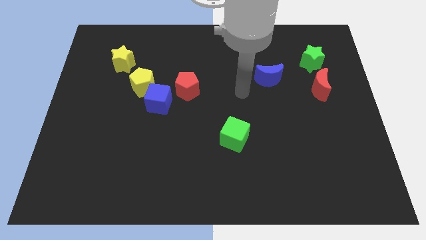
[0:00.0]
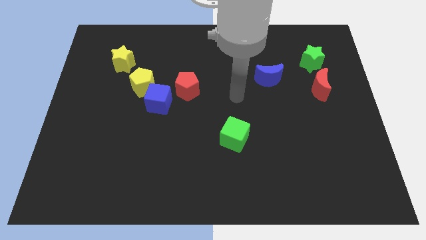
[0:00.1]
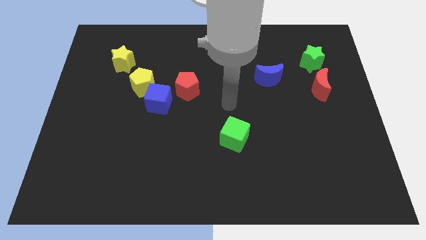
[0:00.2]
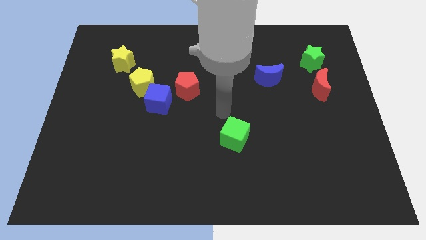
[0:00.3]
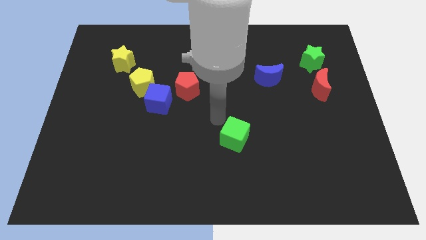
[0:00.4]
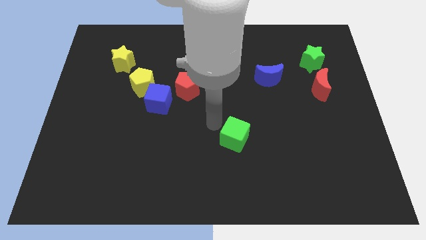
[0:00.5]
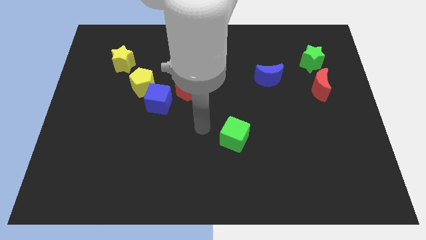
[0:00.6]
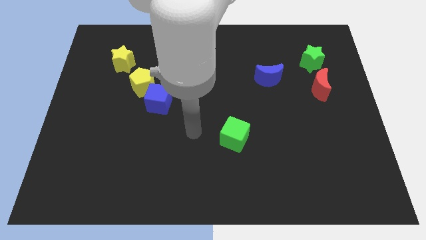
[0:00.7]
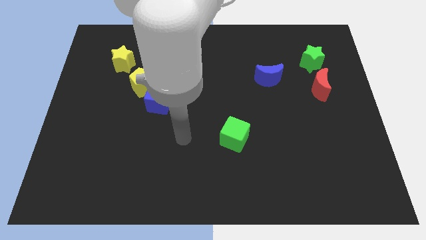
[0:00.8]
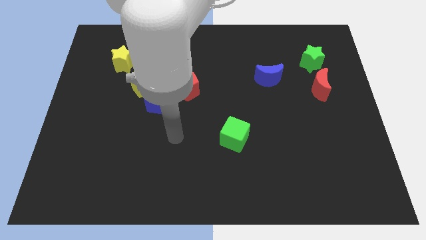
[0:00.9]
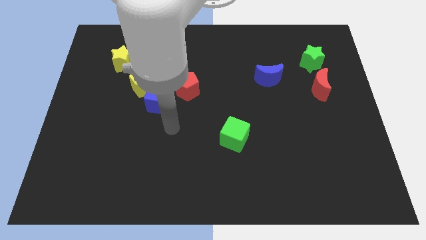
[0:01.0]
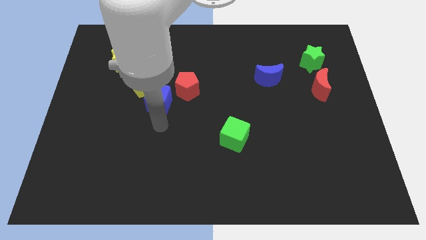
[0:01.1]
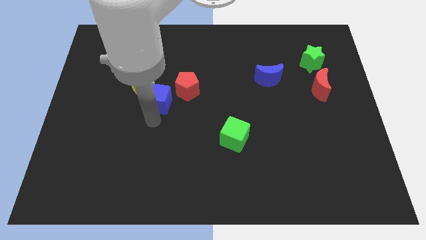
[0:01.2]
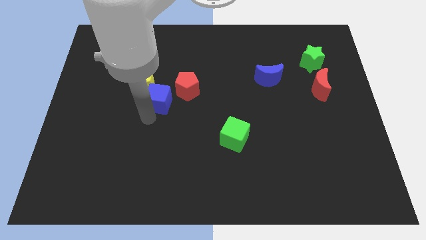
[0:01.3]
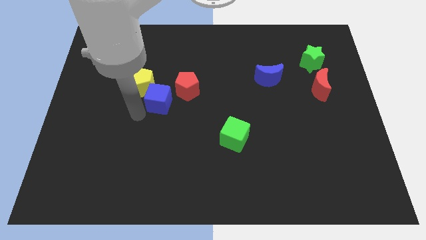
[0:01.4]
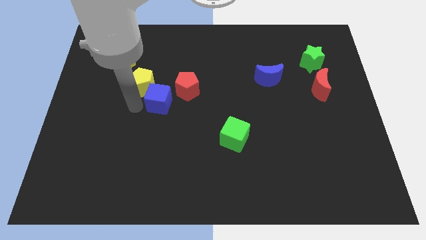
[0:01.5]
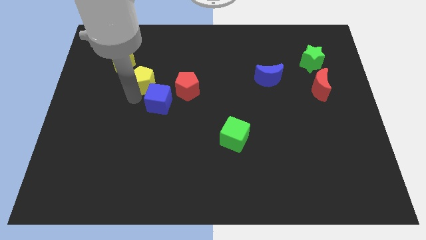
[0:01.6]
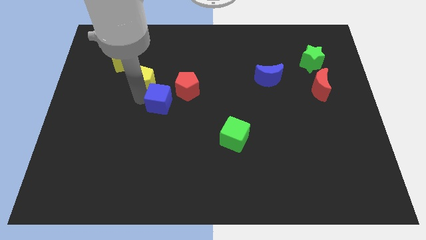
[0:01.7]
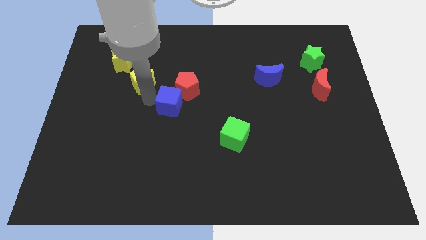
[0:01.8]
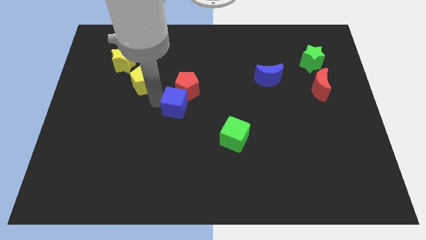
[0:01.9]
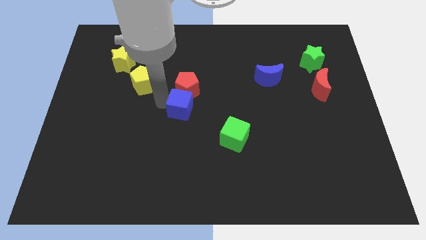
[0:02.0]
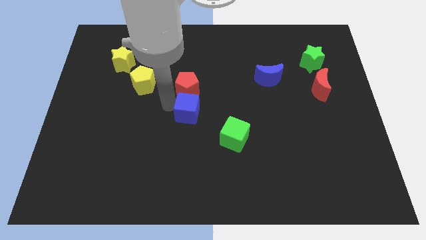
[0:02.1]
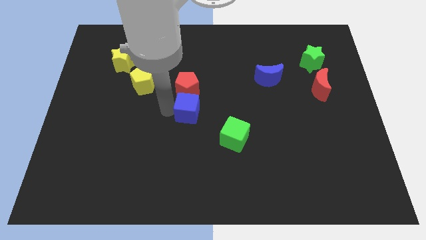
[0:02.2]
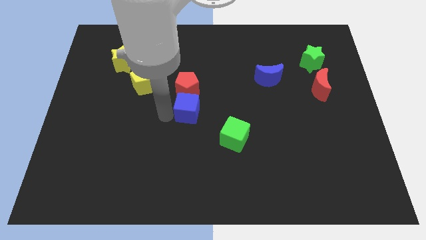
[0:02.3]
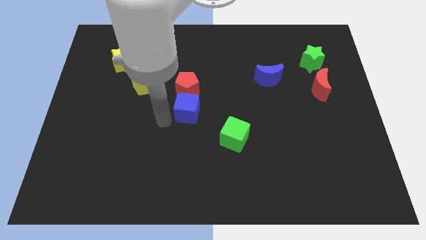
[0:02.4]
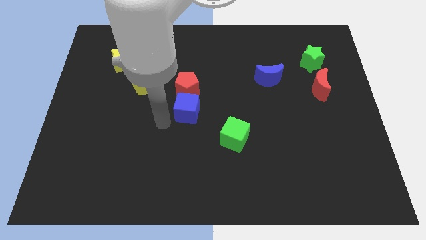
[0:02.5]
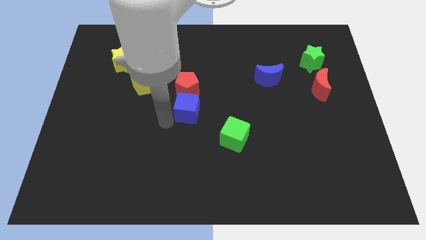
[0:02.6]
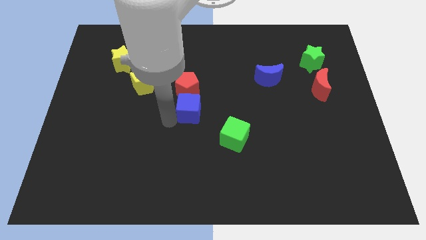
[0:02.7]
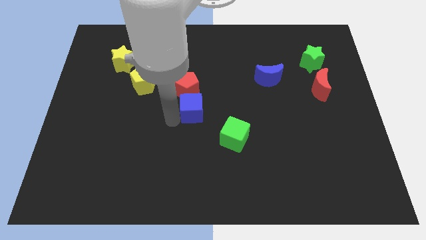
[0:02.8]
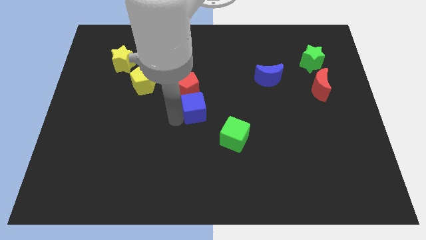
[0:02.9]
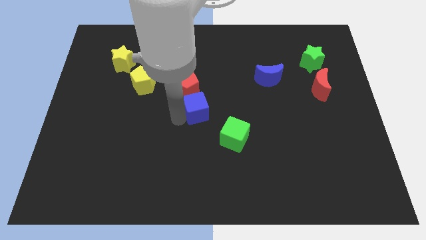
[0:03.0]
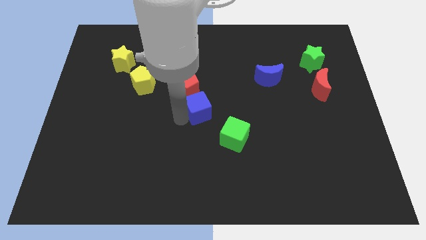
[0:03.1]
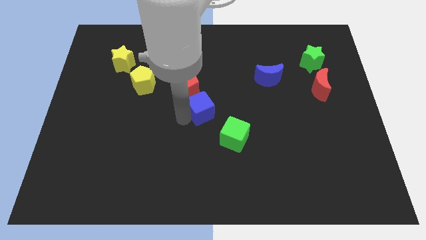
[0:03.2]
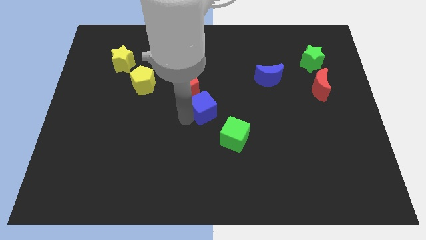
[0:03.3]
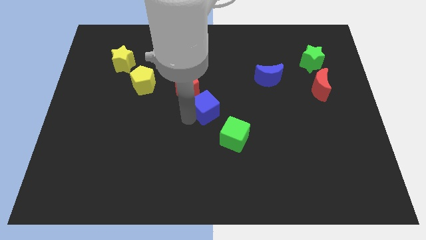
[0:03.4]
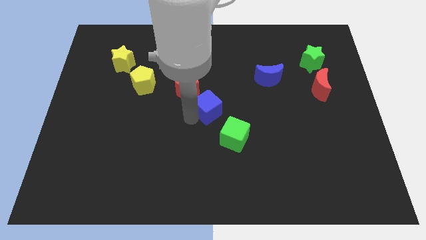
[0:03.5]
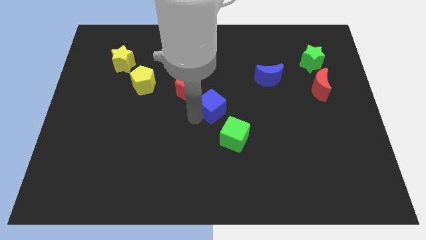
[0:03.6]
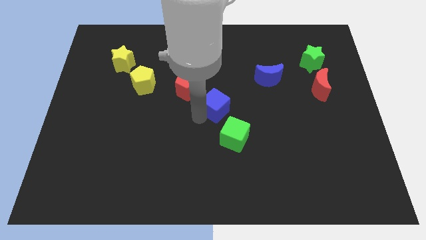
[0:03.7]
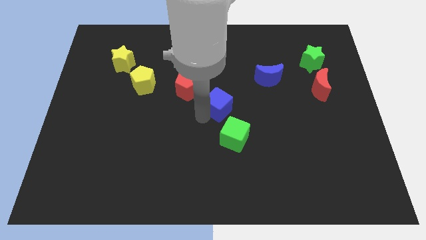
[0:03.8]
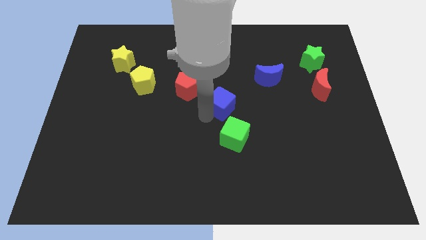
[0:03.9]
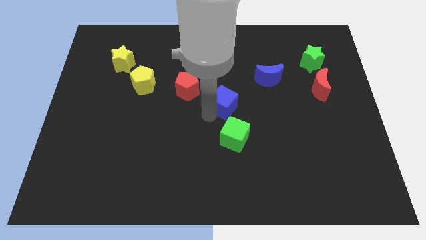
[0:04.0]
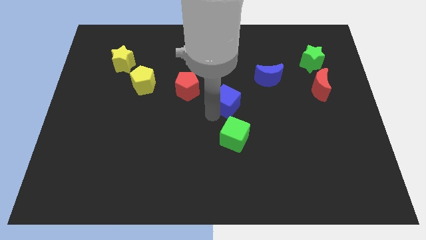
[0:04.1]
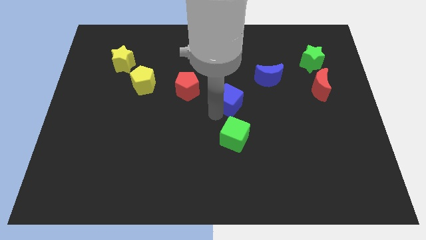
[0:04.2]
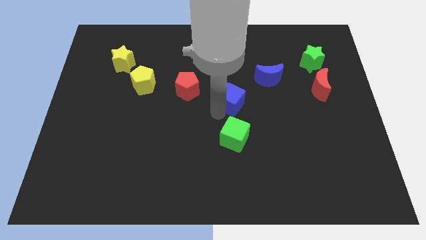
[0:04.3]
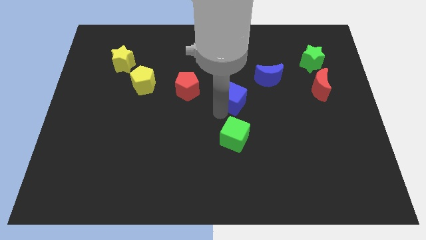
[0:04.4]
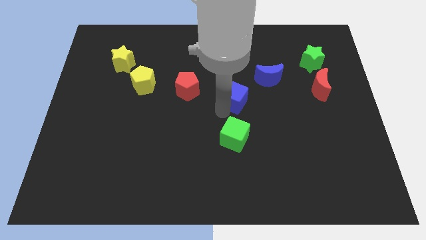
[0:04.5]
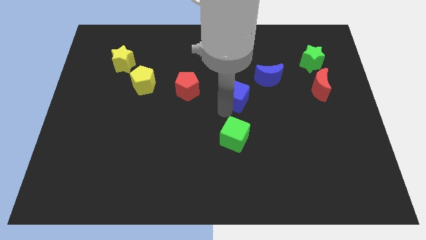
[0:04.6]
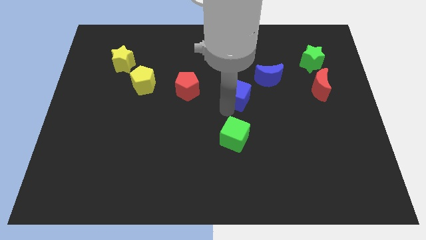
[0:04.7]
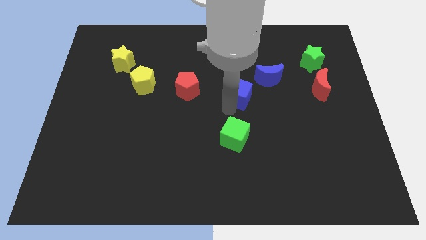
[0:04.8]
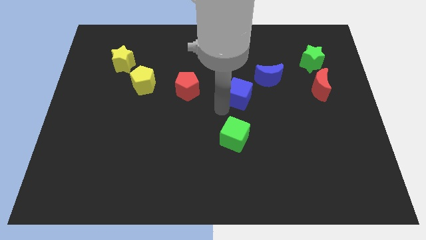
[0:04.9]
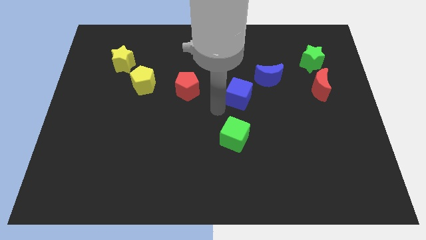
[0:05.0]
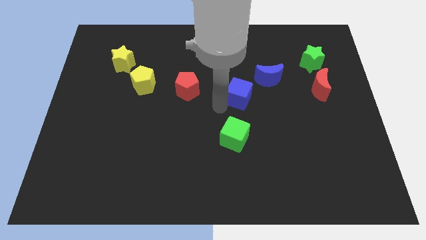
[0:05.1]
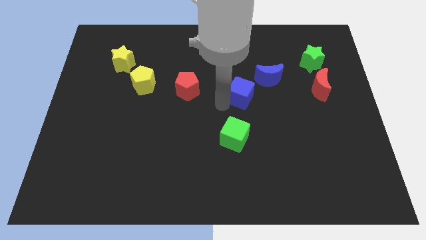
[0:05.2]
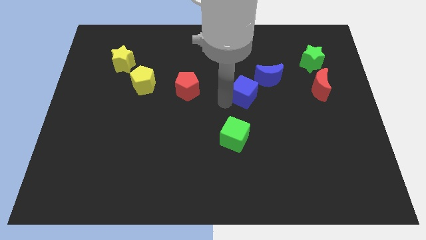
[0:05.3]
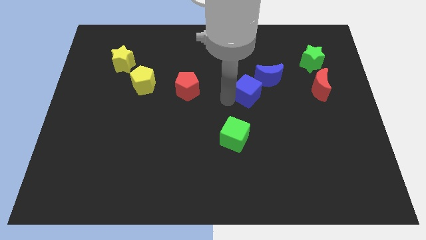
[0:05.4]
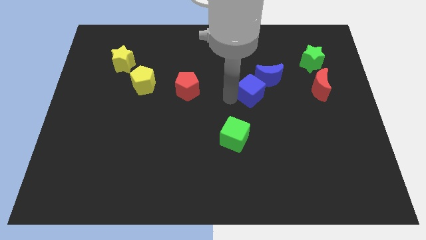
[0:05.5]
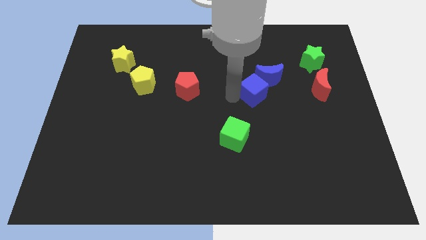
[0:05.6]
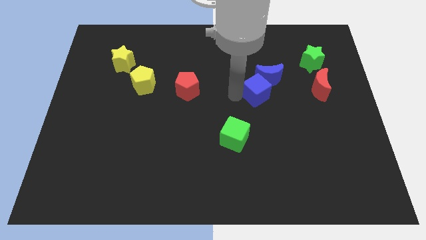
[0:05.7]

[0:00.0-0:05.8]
put the blue cube next to the blue moon

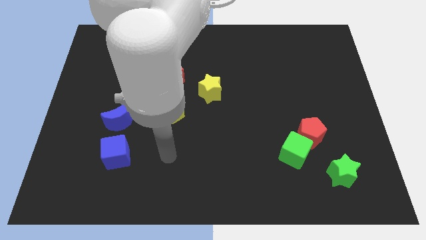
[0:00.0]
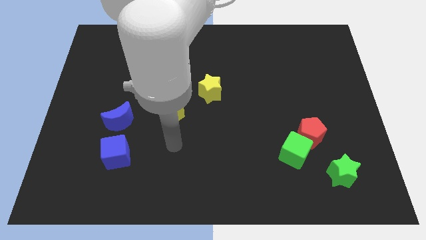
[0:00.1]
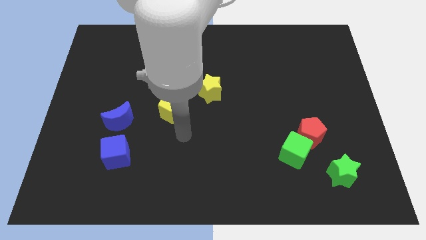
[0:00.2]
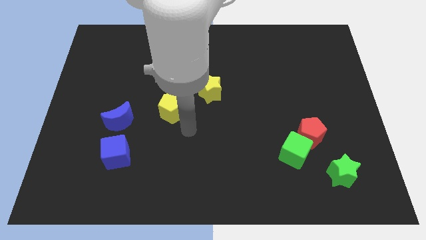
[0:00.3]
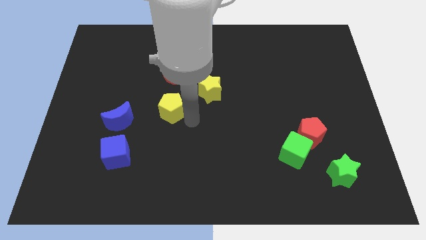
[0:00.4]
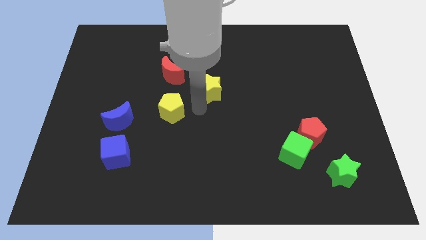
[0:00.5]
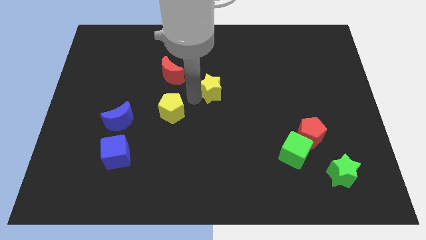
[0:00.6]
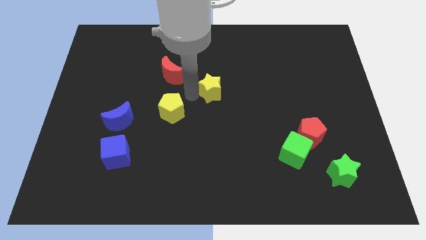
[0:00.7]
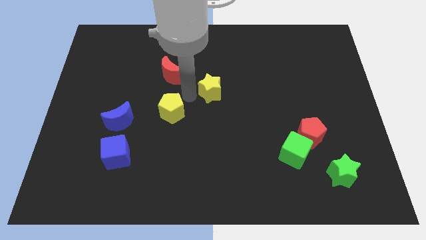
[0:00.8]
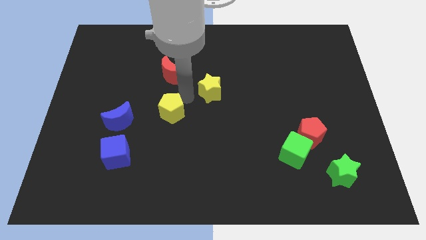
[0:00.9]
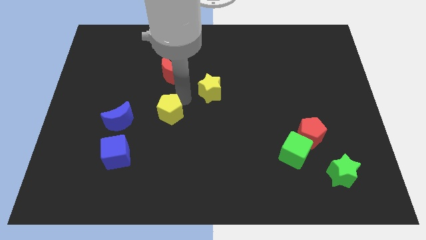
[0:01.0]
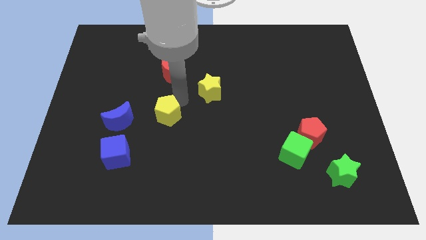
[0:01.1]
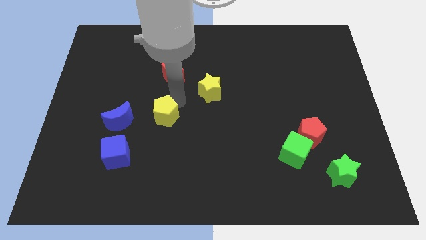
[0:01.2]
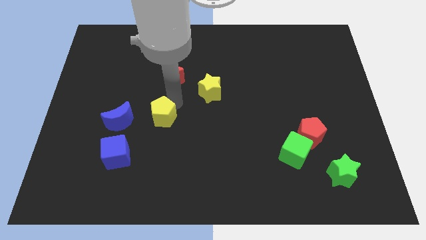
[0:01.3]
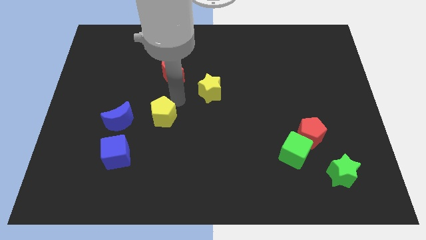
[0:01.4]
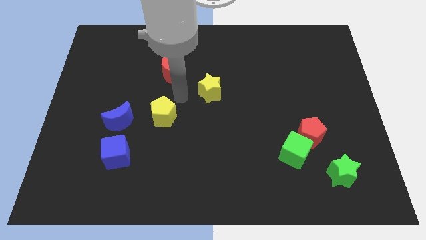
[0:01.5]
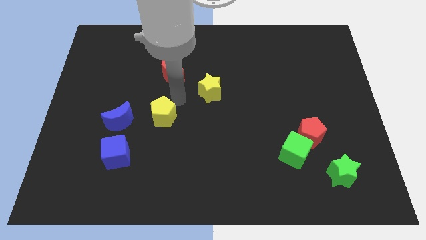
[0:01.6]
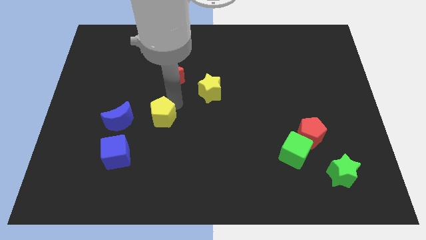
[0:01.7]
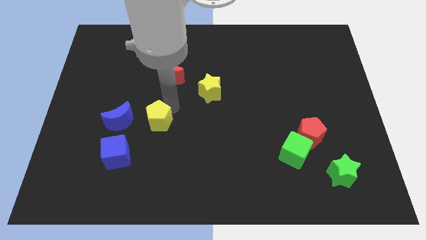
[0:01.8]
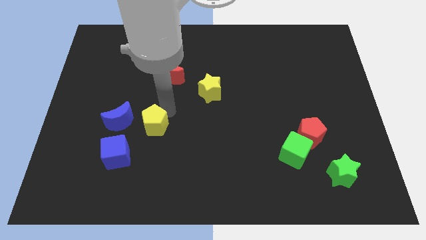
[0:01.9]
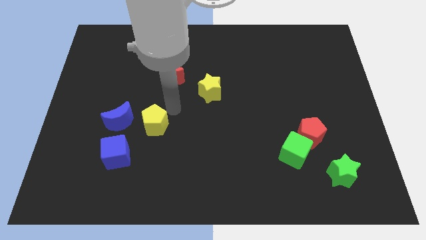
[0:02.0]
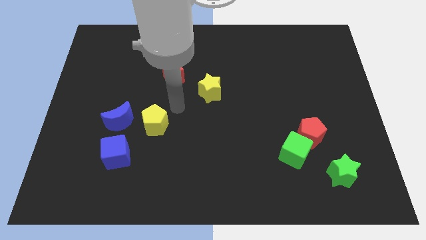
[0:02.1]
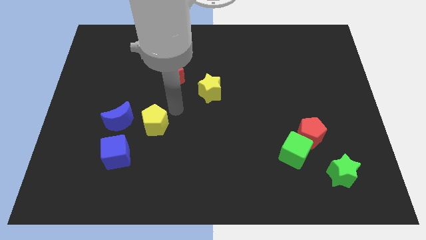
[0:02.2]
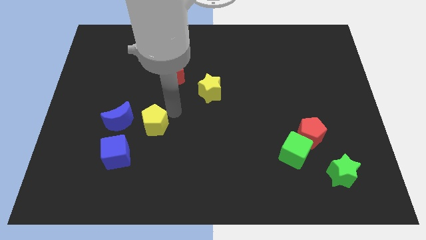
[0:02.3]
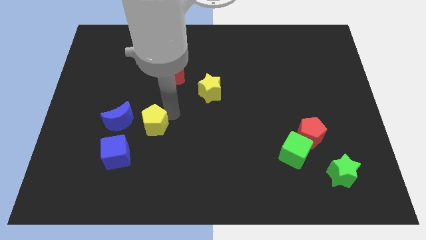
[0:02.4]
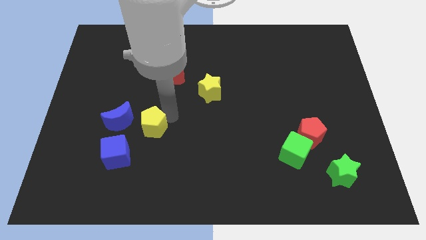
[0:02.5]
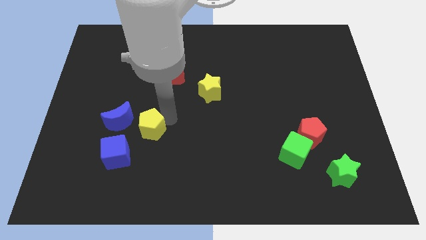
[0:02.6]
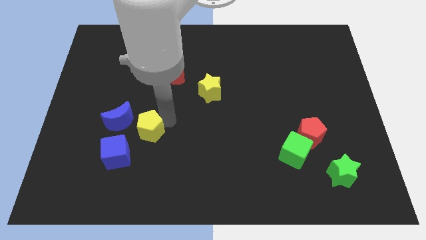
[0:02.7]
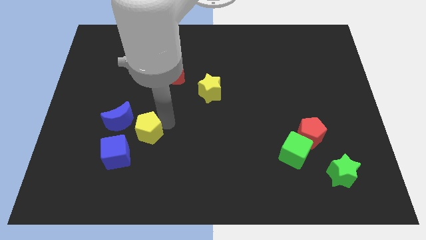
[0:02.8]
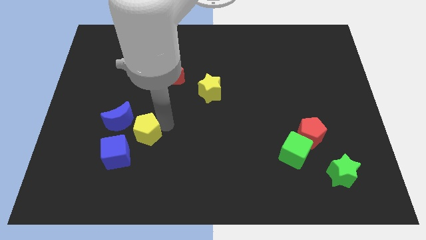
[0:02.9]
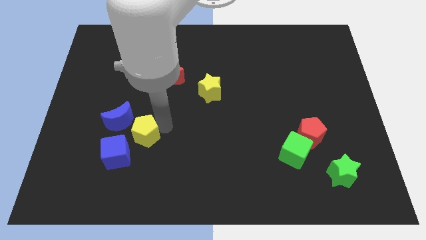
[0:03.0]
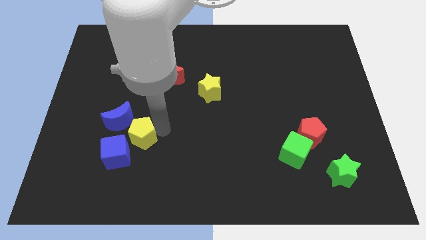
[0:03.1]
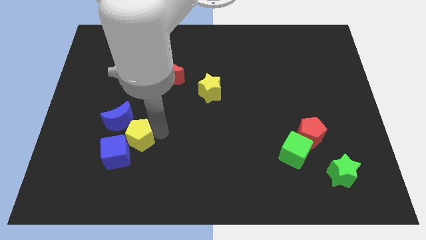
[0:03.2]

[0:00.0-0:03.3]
move the yellow pentagon to the blue cube
